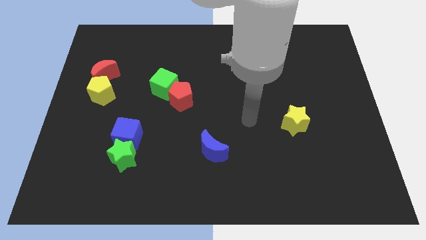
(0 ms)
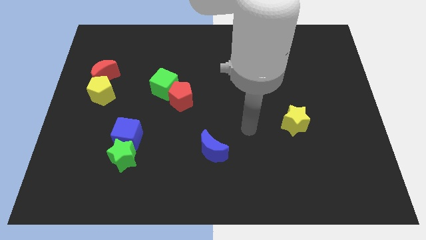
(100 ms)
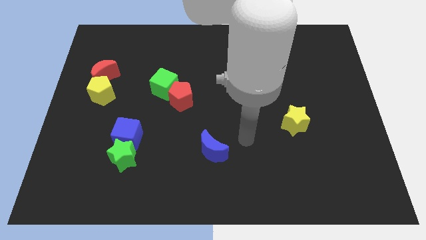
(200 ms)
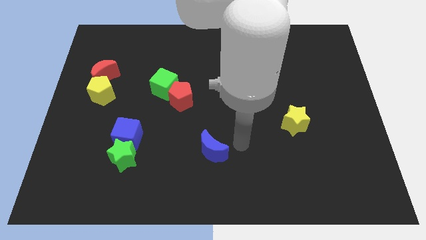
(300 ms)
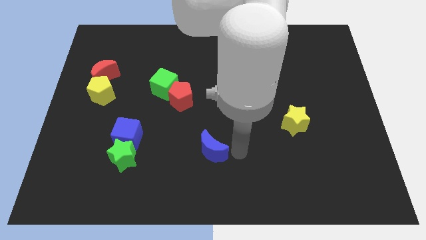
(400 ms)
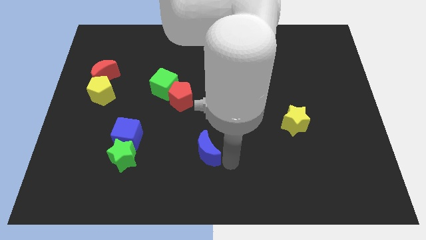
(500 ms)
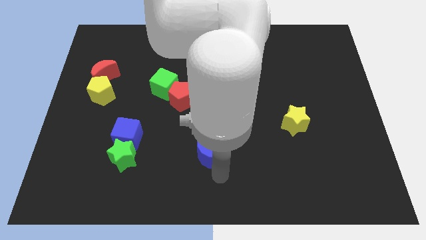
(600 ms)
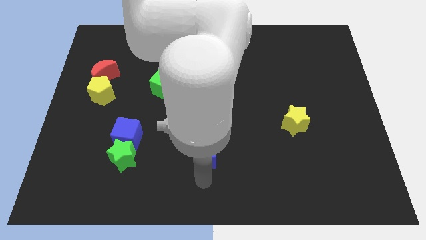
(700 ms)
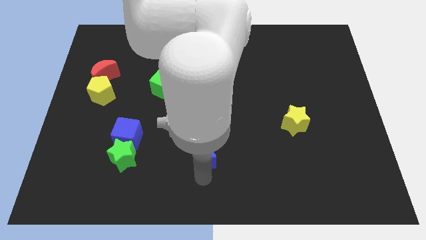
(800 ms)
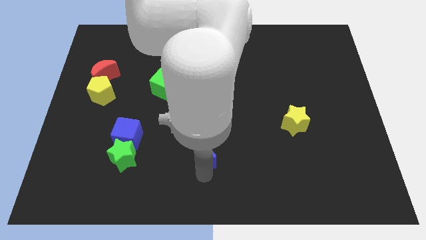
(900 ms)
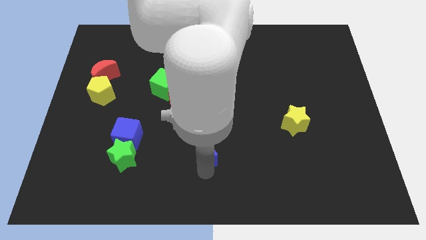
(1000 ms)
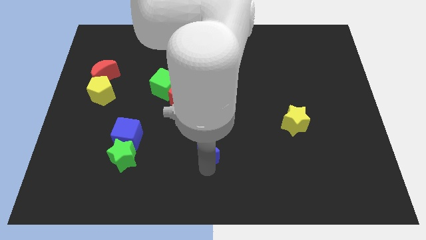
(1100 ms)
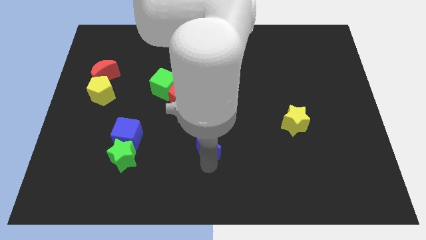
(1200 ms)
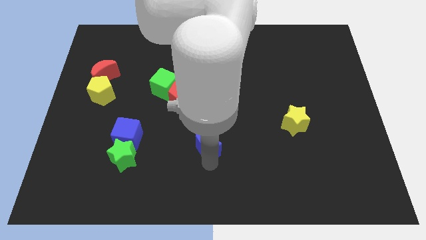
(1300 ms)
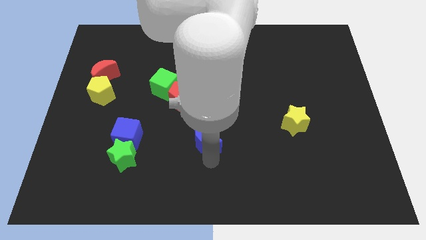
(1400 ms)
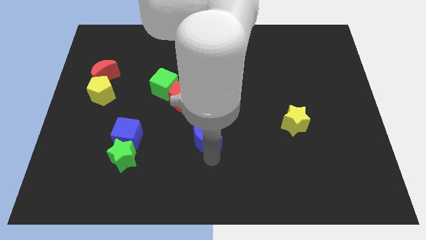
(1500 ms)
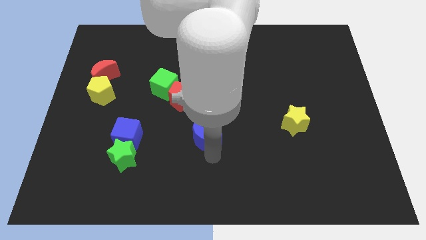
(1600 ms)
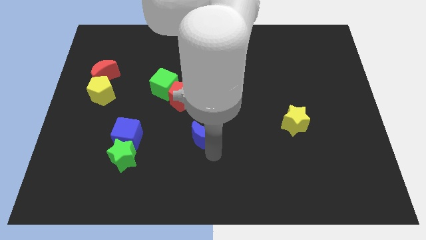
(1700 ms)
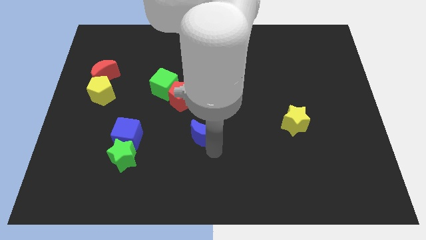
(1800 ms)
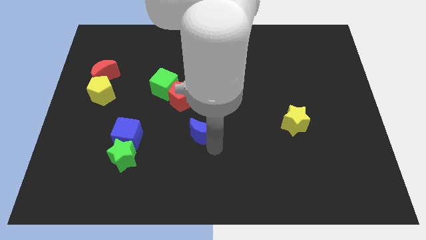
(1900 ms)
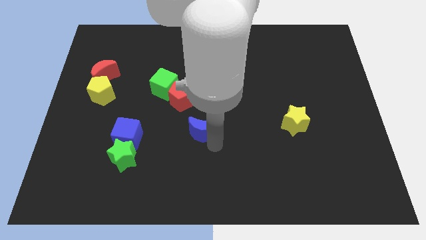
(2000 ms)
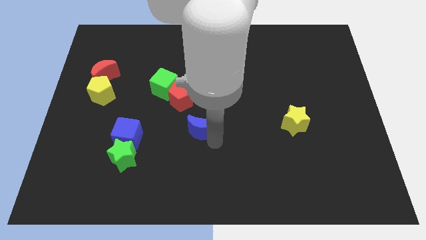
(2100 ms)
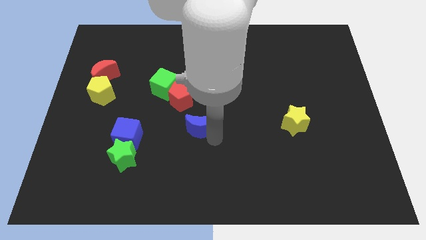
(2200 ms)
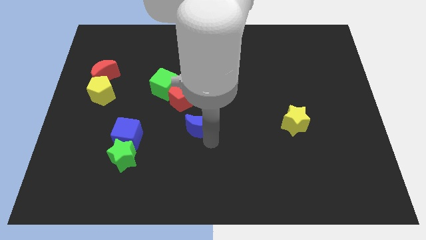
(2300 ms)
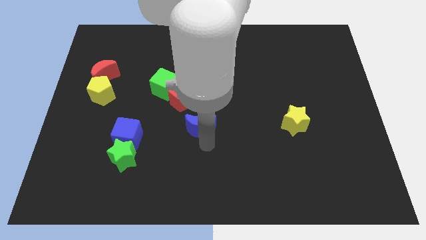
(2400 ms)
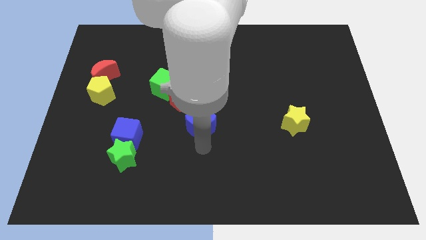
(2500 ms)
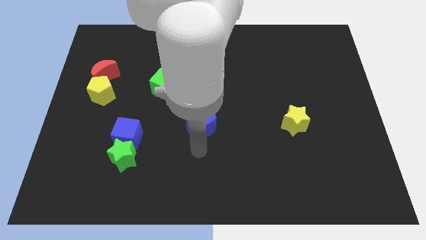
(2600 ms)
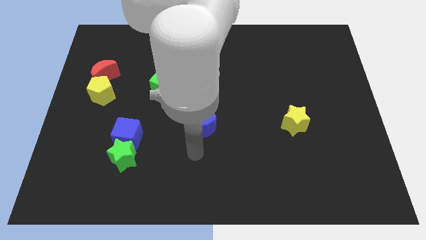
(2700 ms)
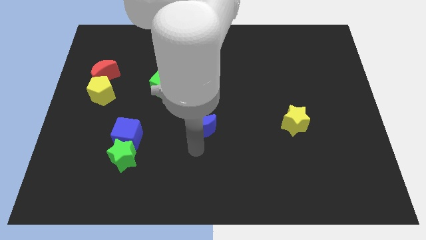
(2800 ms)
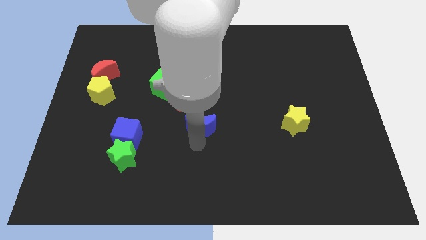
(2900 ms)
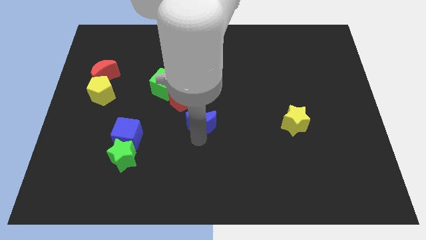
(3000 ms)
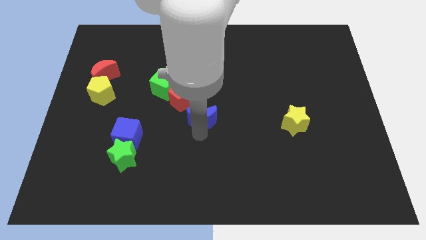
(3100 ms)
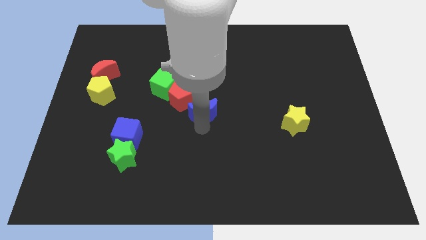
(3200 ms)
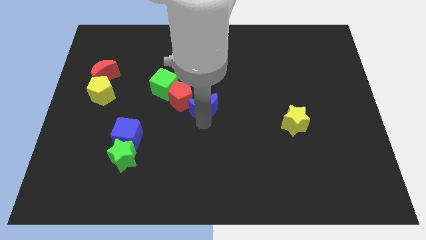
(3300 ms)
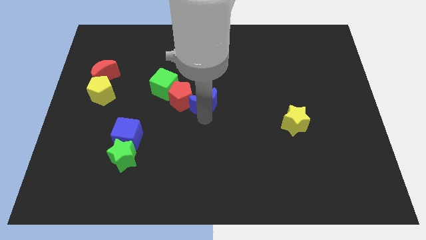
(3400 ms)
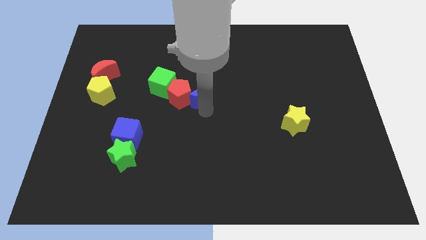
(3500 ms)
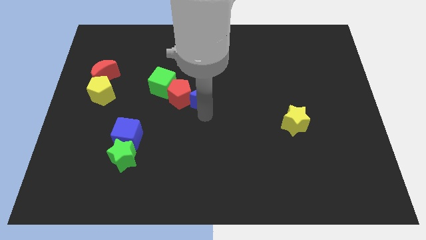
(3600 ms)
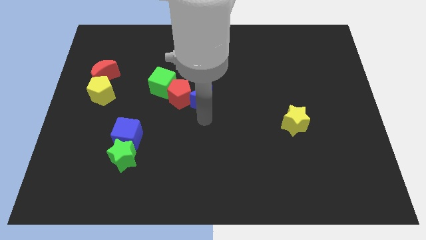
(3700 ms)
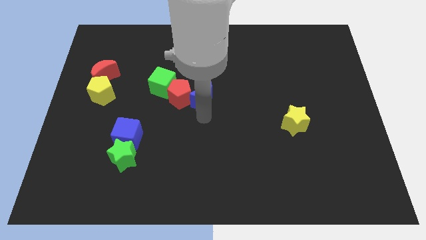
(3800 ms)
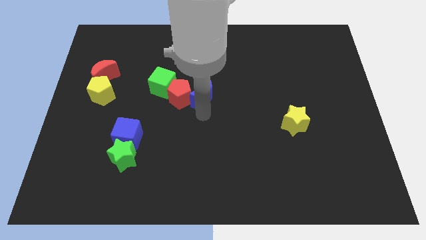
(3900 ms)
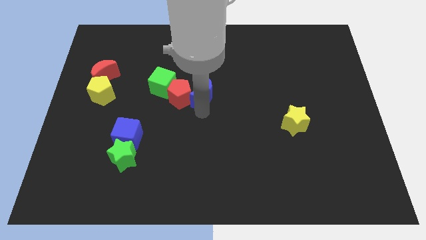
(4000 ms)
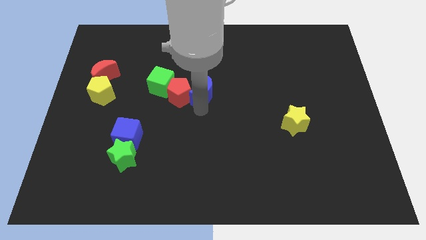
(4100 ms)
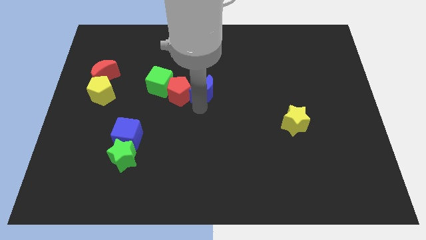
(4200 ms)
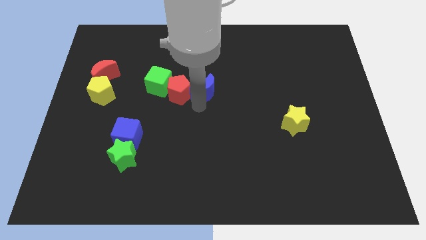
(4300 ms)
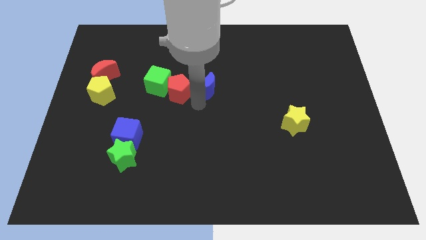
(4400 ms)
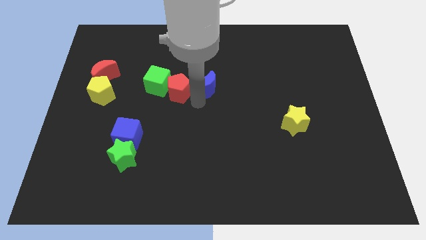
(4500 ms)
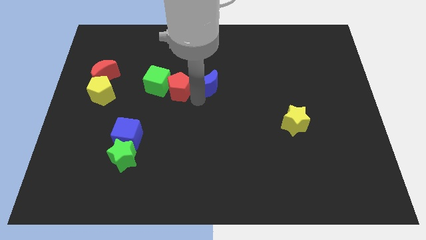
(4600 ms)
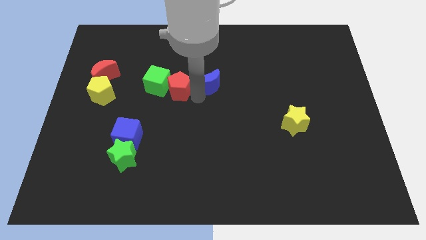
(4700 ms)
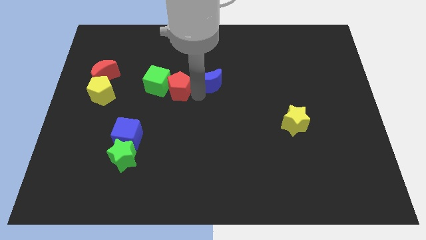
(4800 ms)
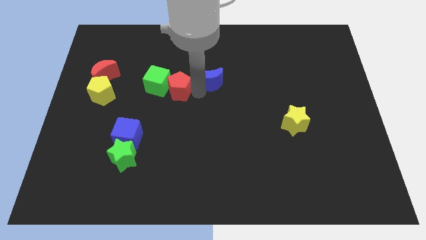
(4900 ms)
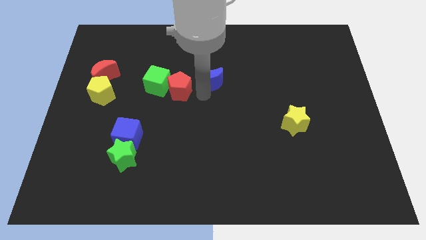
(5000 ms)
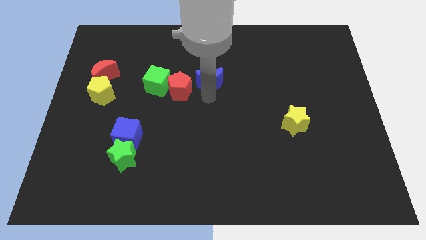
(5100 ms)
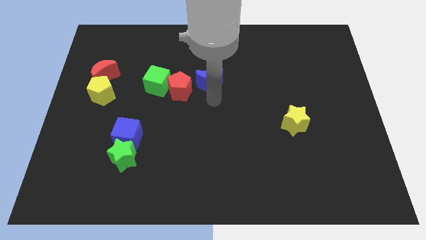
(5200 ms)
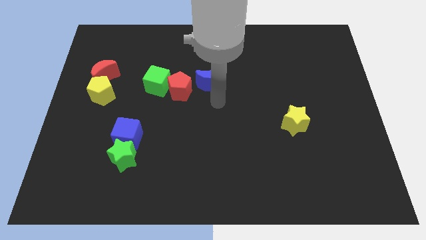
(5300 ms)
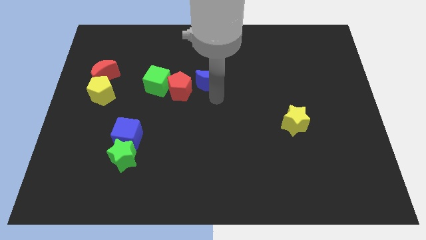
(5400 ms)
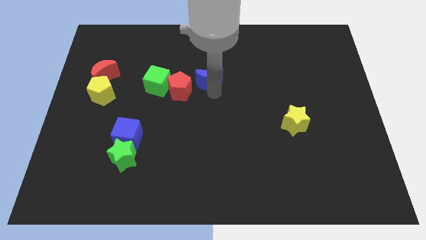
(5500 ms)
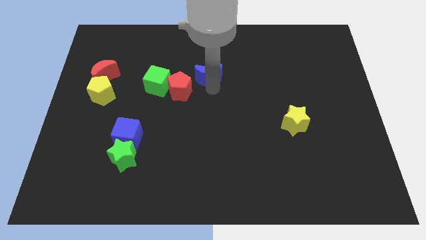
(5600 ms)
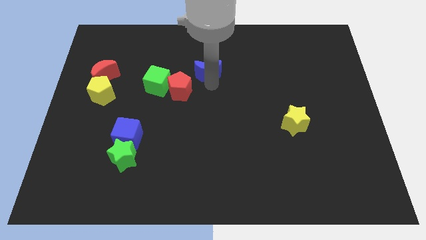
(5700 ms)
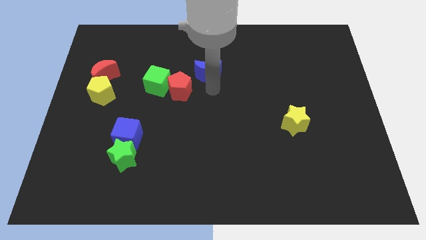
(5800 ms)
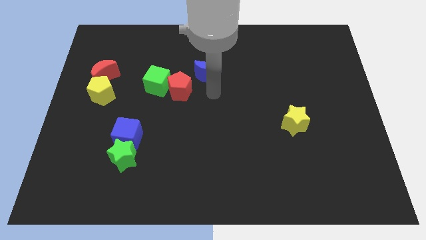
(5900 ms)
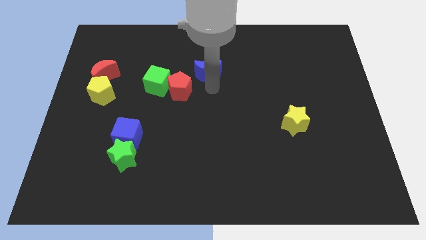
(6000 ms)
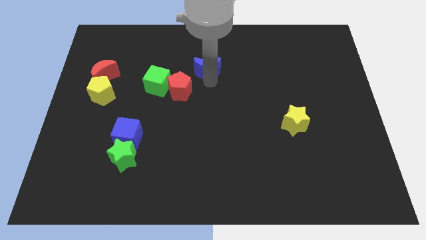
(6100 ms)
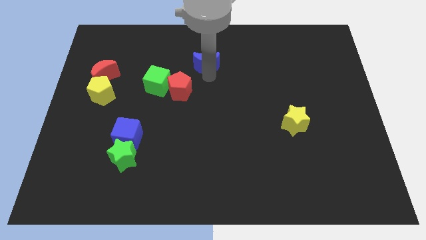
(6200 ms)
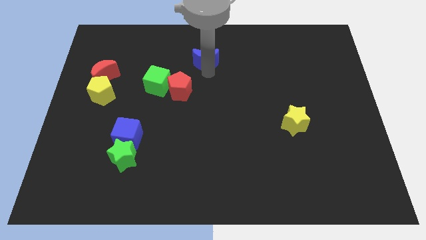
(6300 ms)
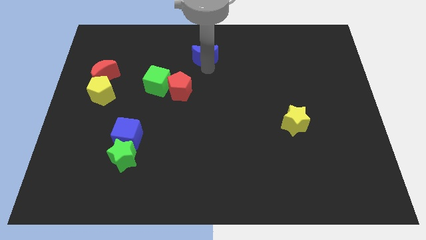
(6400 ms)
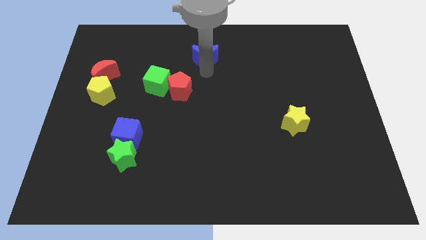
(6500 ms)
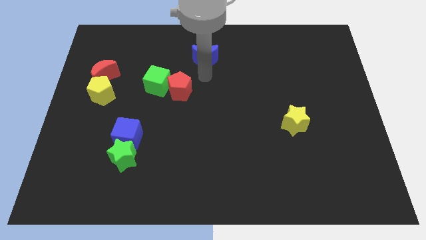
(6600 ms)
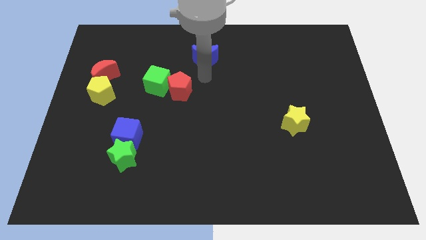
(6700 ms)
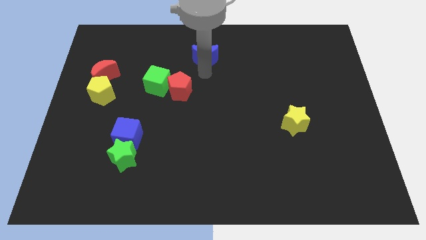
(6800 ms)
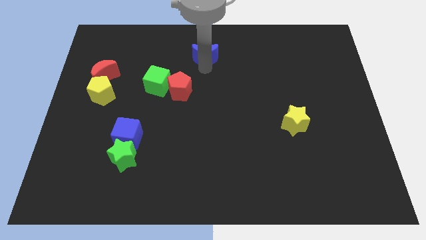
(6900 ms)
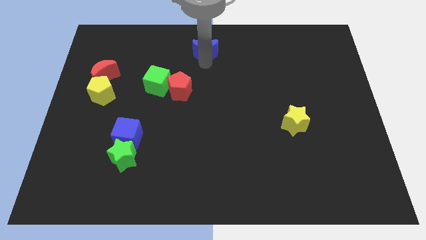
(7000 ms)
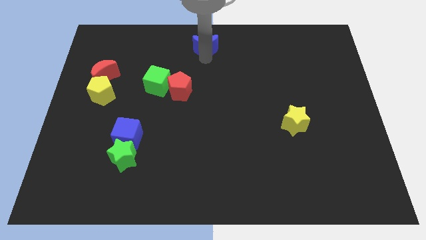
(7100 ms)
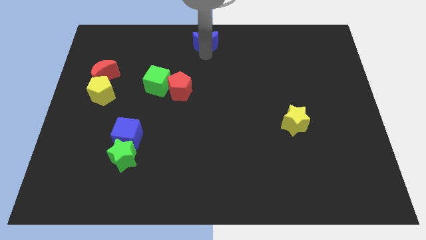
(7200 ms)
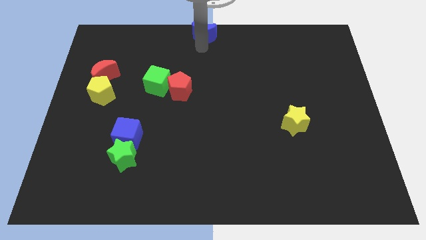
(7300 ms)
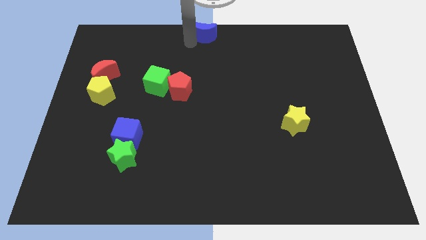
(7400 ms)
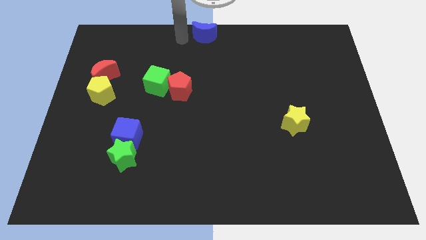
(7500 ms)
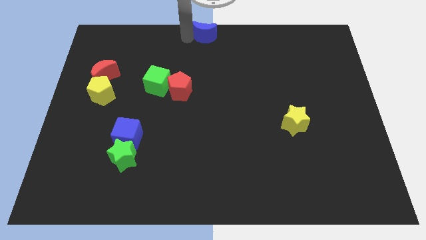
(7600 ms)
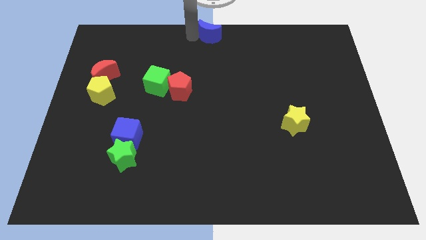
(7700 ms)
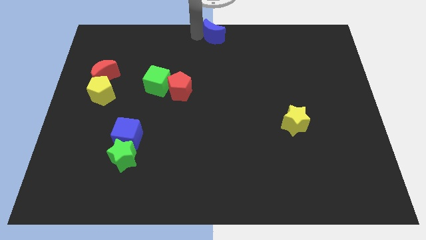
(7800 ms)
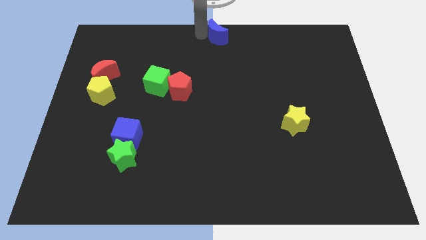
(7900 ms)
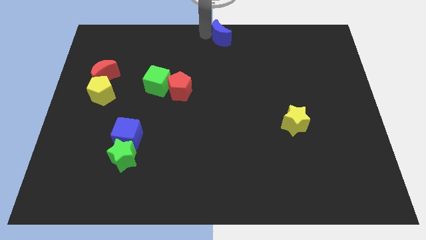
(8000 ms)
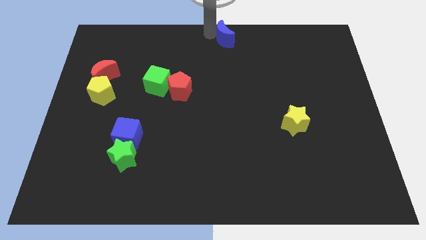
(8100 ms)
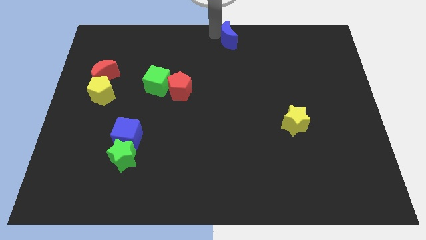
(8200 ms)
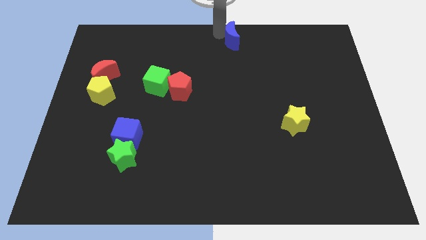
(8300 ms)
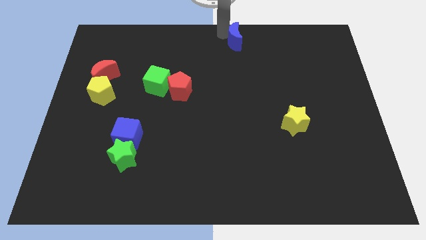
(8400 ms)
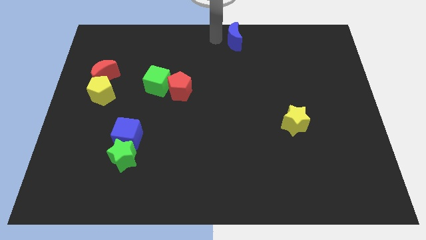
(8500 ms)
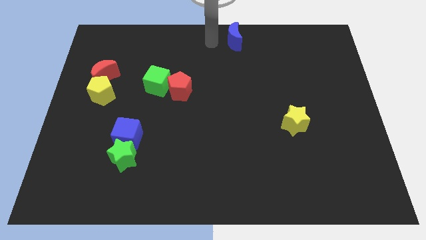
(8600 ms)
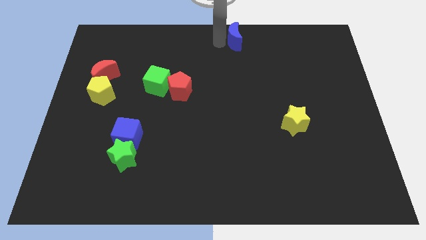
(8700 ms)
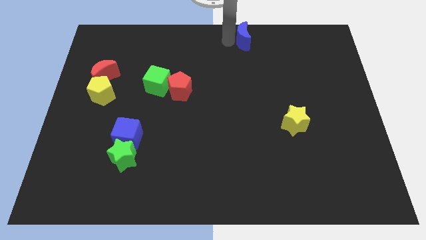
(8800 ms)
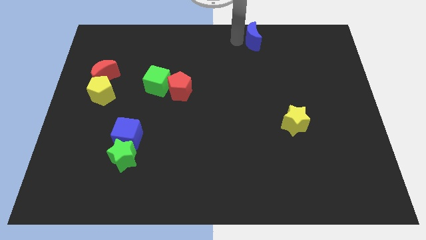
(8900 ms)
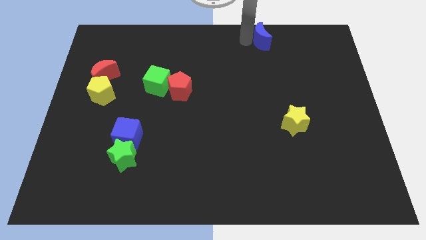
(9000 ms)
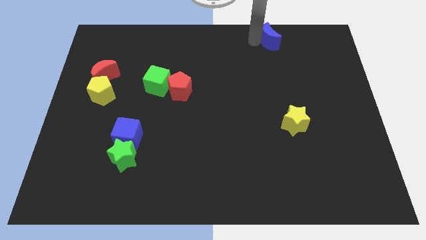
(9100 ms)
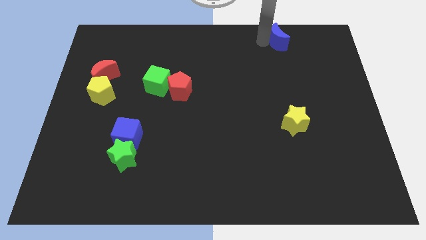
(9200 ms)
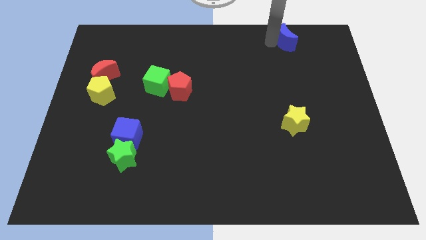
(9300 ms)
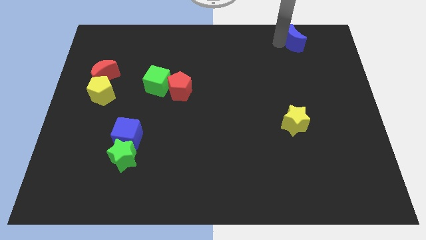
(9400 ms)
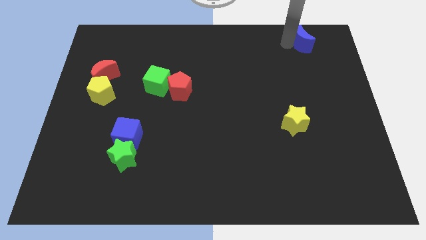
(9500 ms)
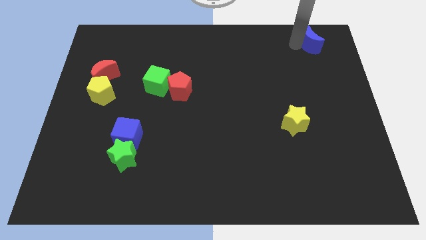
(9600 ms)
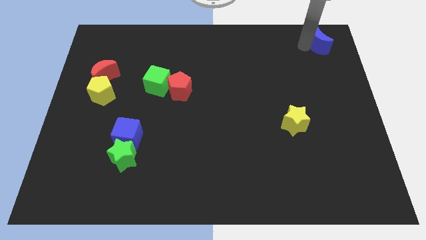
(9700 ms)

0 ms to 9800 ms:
move the blue moon to the top right corner
